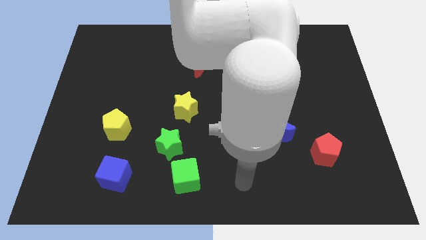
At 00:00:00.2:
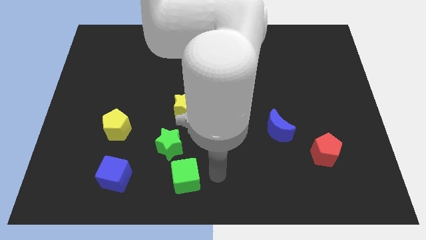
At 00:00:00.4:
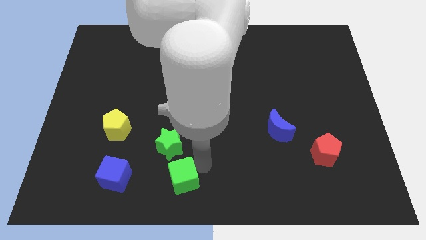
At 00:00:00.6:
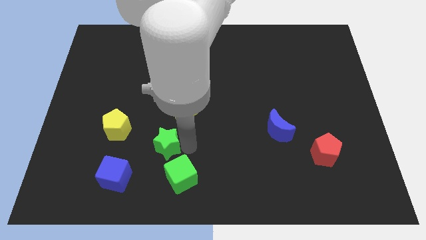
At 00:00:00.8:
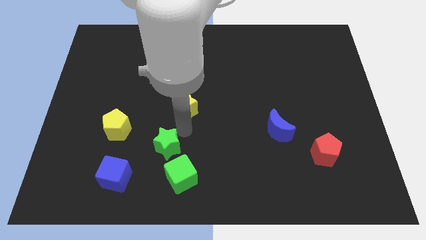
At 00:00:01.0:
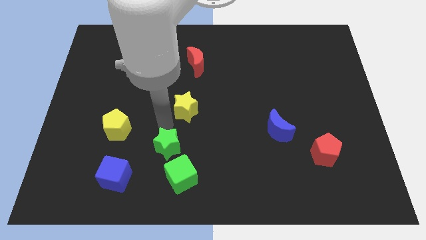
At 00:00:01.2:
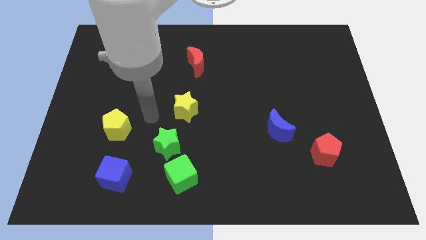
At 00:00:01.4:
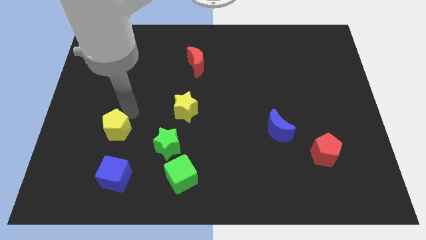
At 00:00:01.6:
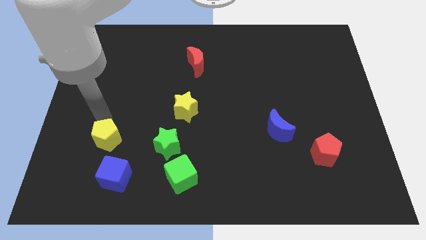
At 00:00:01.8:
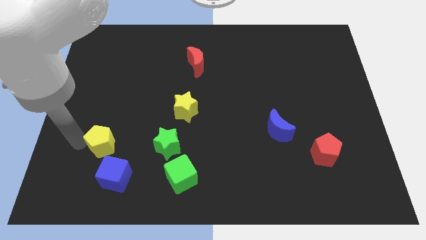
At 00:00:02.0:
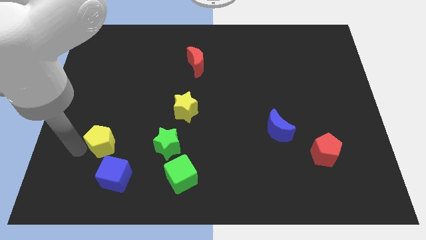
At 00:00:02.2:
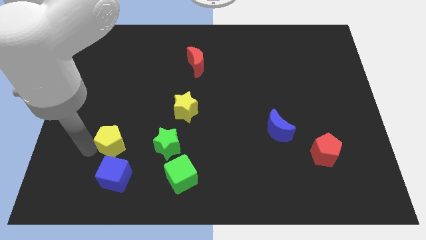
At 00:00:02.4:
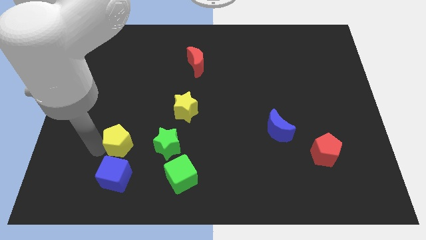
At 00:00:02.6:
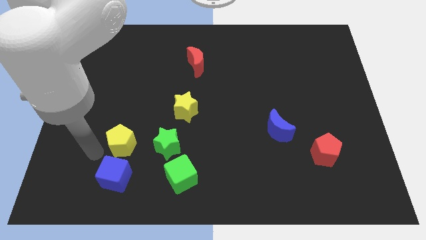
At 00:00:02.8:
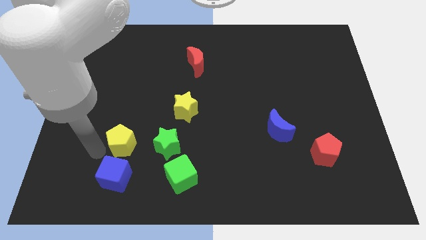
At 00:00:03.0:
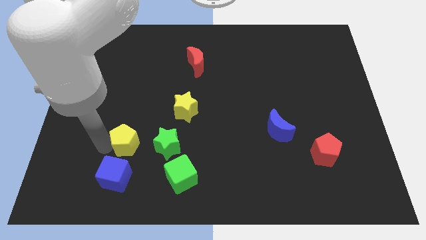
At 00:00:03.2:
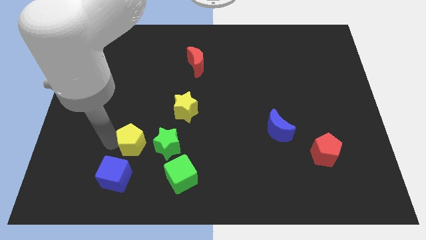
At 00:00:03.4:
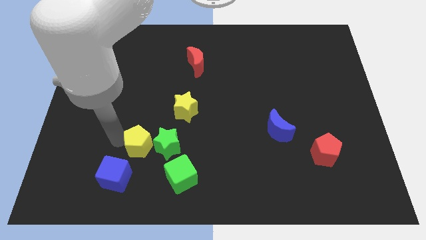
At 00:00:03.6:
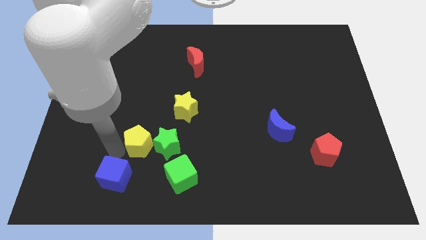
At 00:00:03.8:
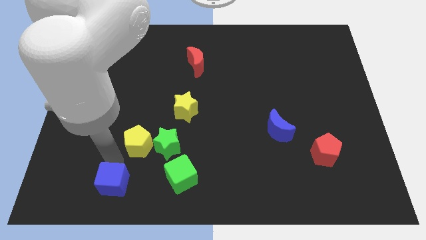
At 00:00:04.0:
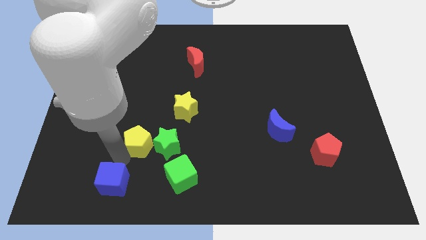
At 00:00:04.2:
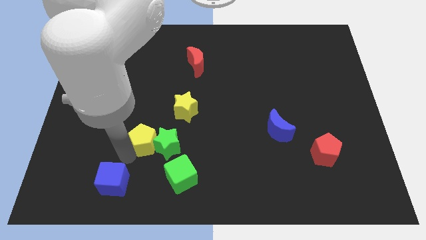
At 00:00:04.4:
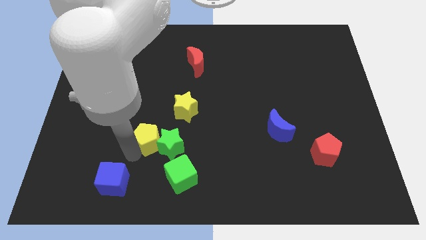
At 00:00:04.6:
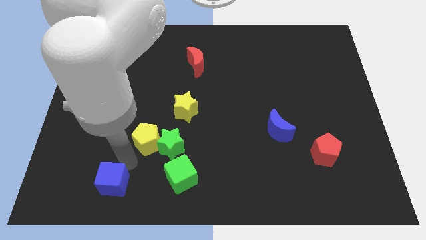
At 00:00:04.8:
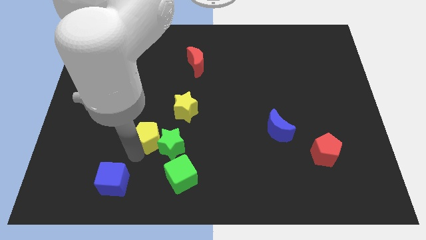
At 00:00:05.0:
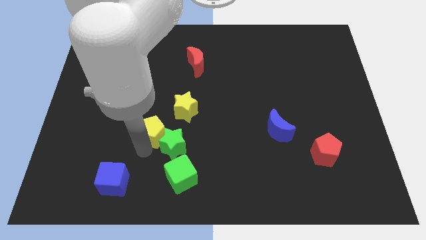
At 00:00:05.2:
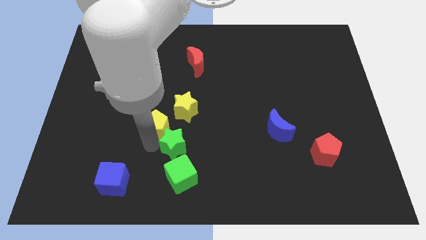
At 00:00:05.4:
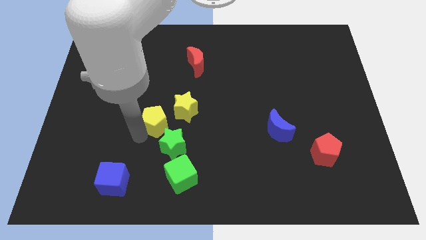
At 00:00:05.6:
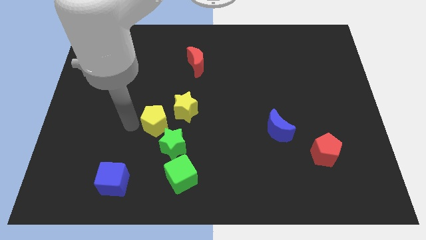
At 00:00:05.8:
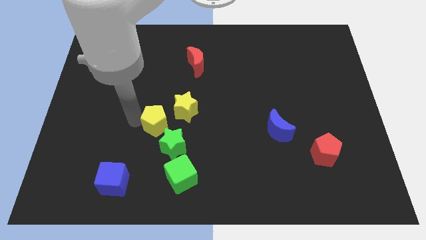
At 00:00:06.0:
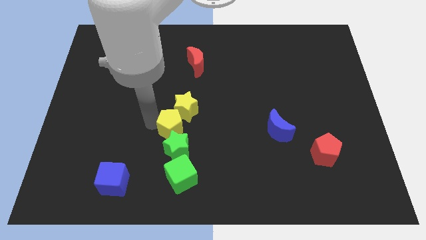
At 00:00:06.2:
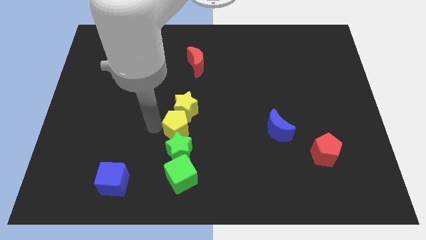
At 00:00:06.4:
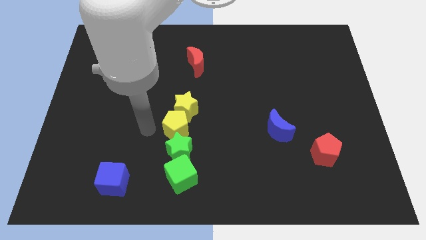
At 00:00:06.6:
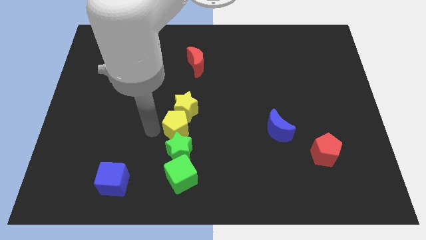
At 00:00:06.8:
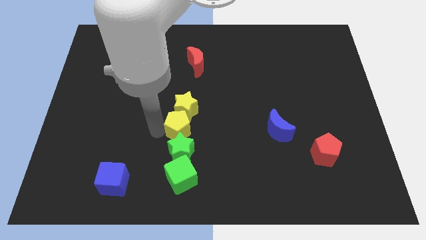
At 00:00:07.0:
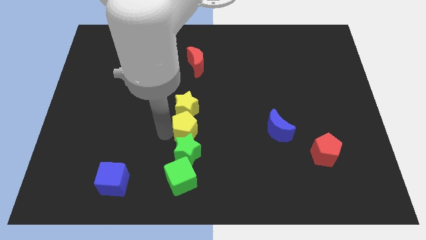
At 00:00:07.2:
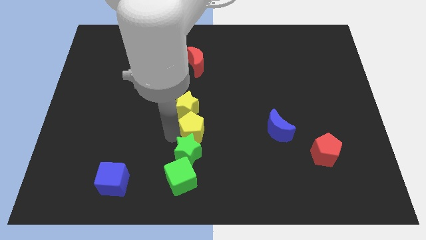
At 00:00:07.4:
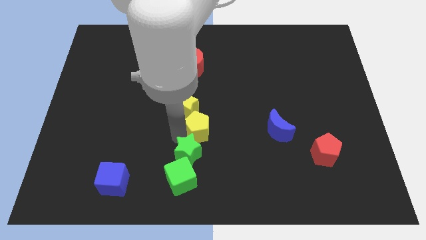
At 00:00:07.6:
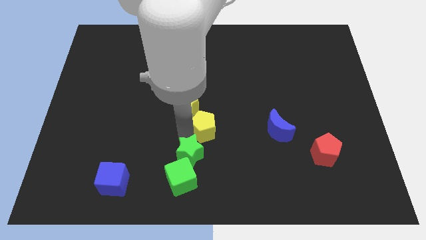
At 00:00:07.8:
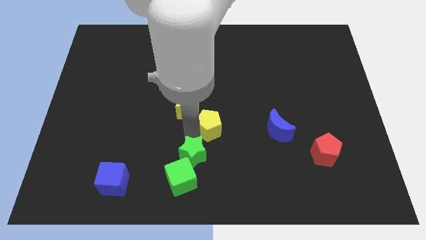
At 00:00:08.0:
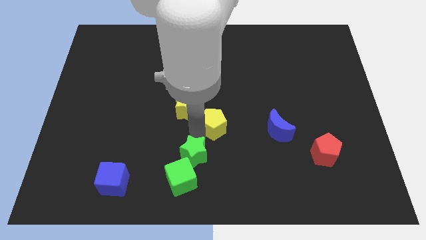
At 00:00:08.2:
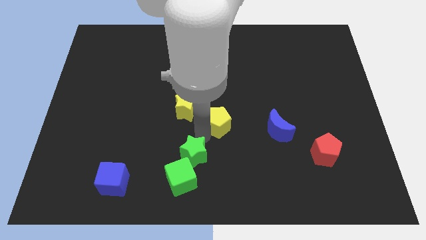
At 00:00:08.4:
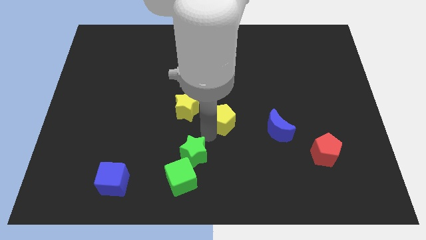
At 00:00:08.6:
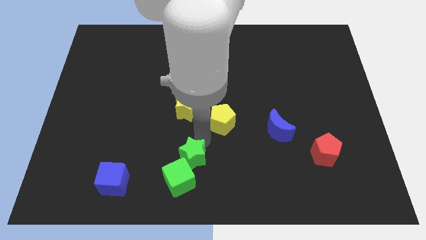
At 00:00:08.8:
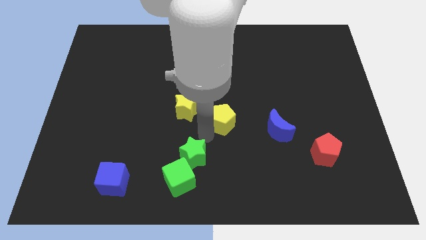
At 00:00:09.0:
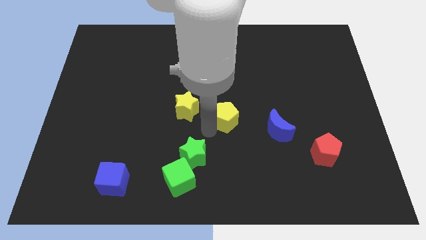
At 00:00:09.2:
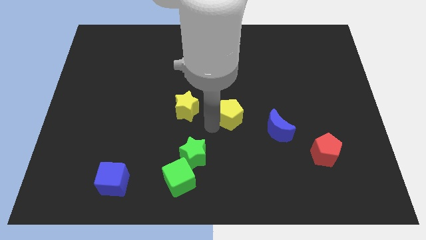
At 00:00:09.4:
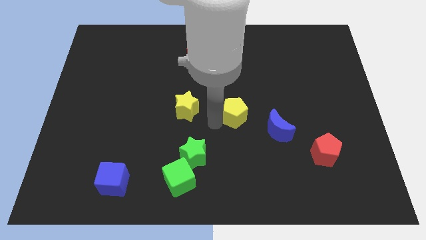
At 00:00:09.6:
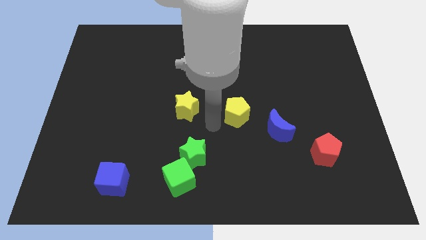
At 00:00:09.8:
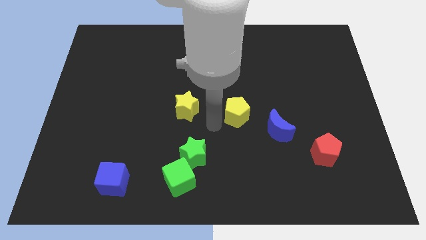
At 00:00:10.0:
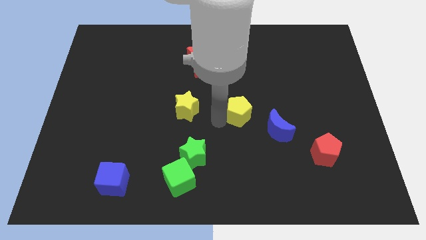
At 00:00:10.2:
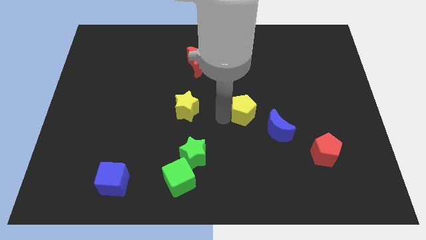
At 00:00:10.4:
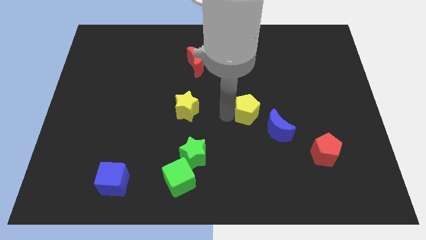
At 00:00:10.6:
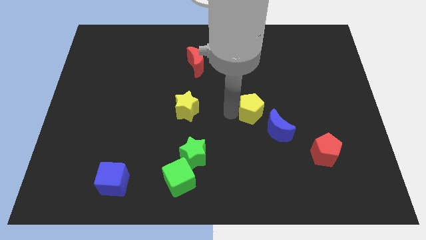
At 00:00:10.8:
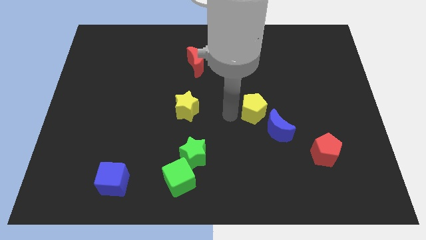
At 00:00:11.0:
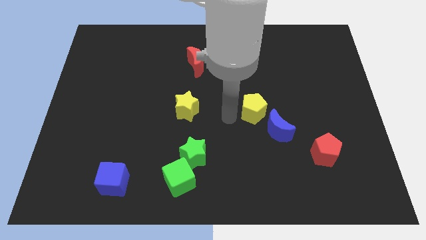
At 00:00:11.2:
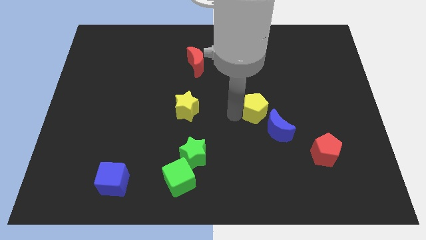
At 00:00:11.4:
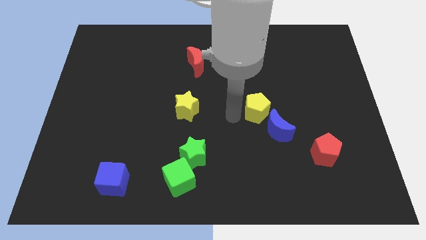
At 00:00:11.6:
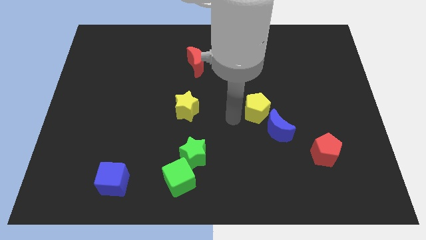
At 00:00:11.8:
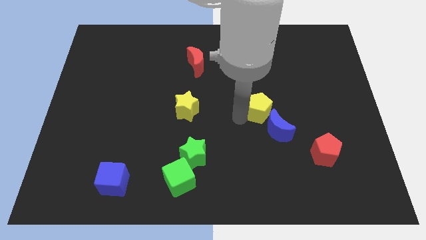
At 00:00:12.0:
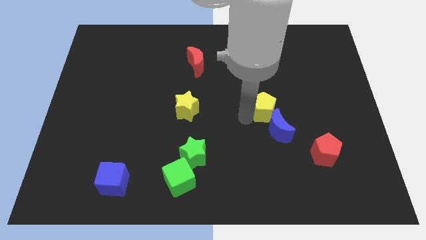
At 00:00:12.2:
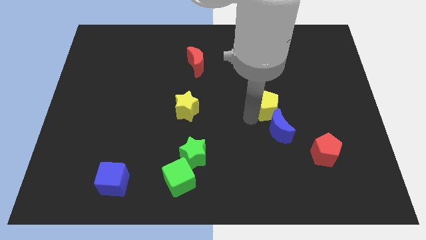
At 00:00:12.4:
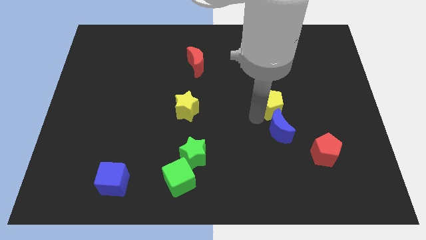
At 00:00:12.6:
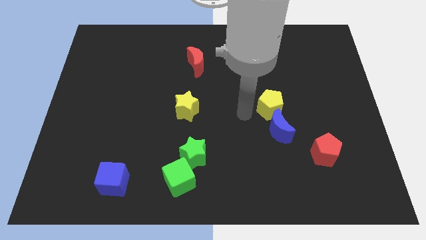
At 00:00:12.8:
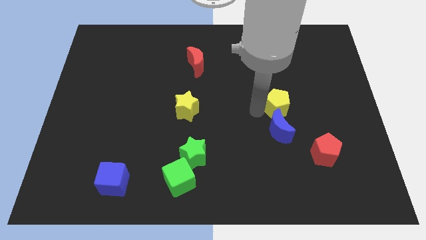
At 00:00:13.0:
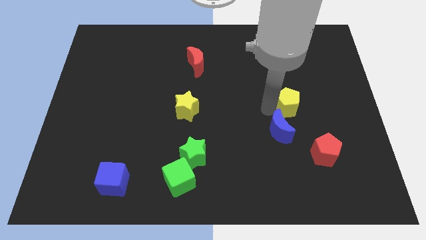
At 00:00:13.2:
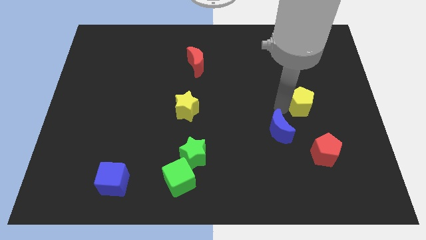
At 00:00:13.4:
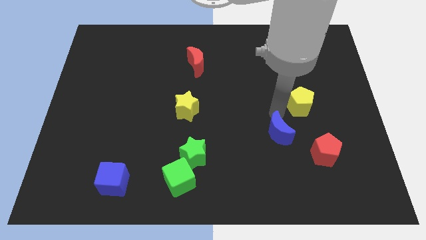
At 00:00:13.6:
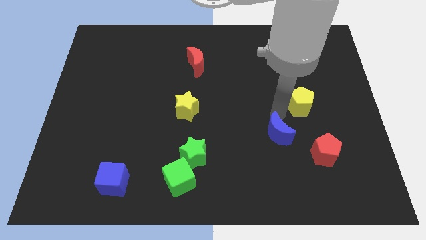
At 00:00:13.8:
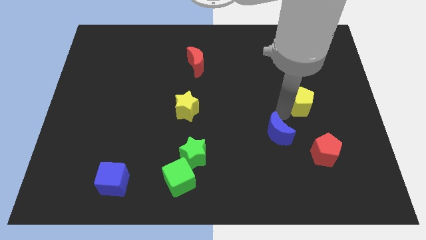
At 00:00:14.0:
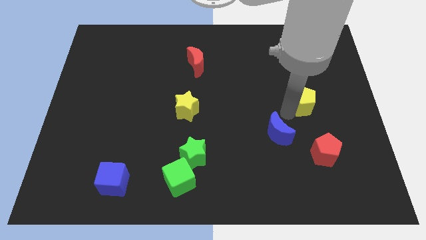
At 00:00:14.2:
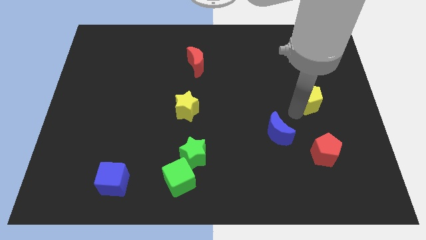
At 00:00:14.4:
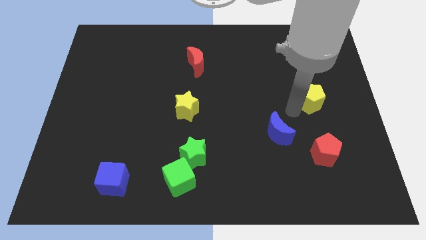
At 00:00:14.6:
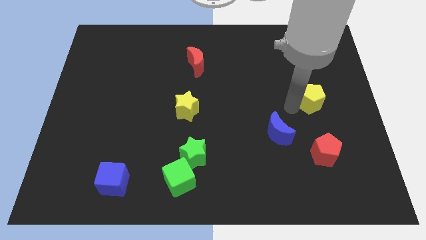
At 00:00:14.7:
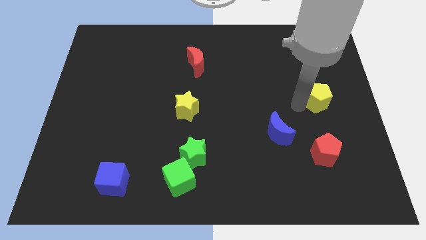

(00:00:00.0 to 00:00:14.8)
push the yellow pentagon to the right side
